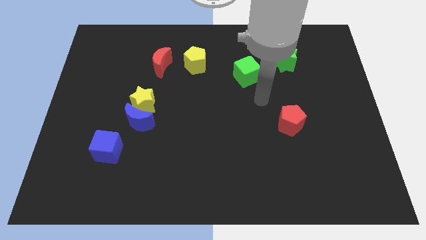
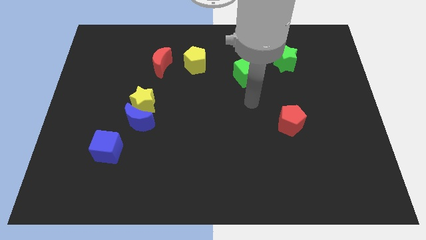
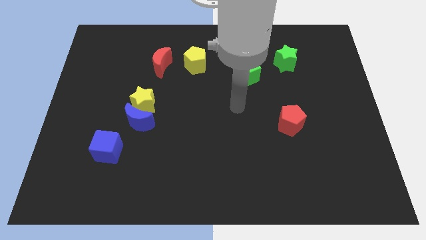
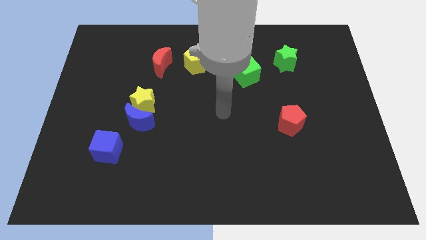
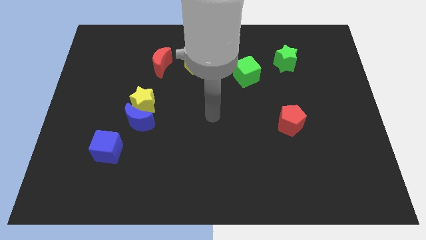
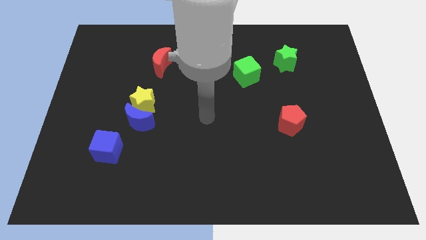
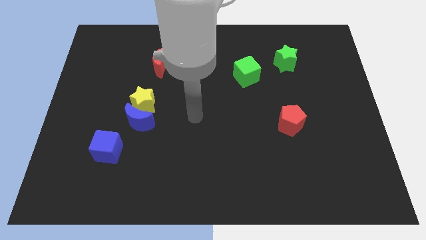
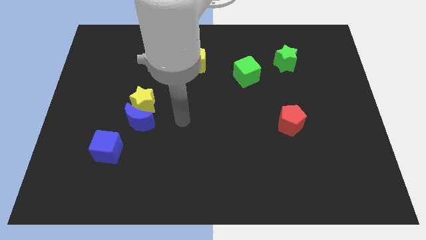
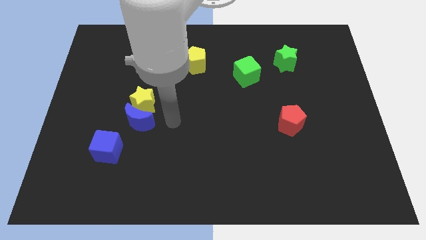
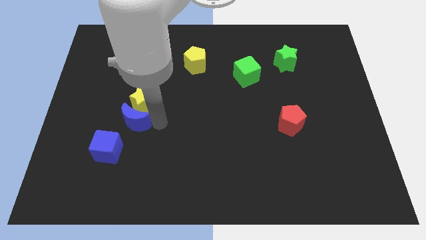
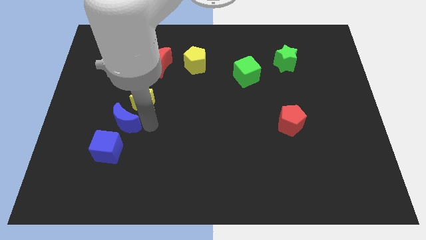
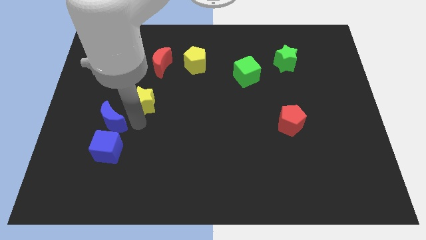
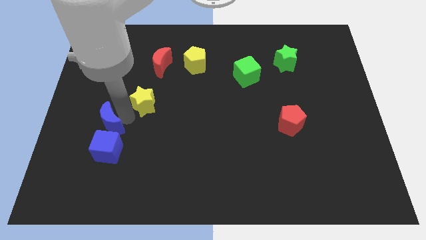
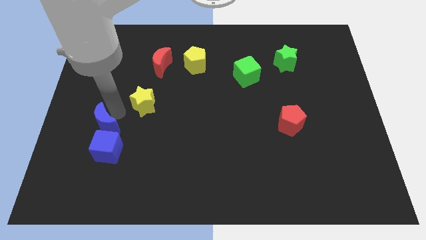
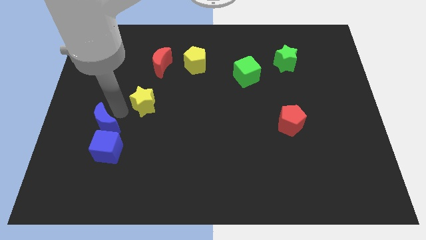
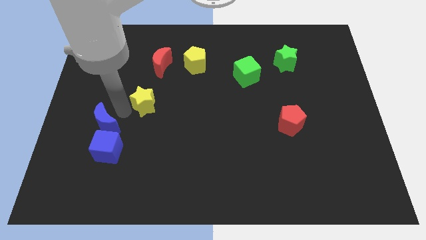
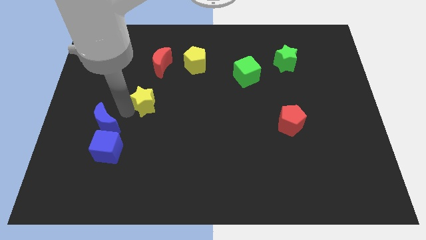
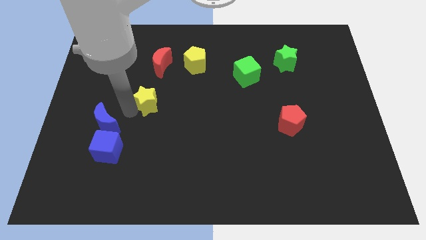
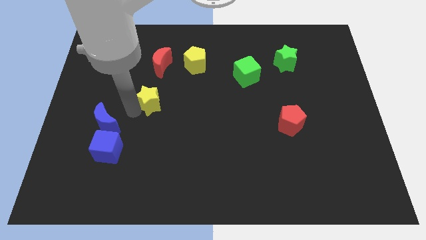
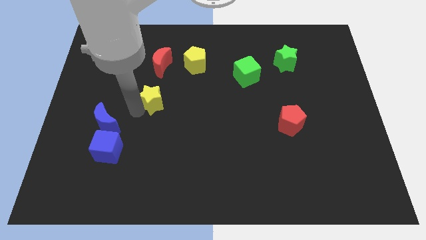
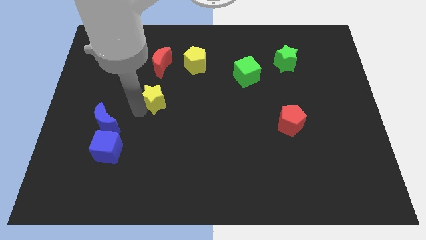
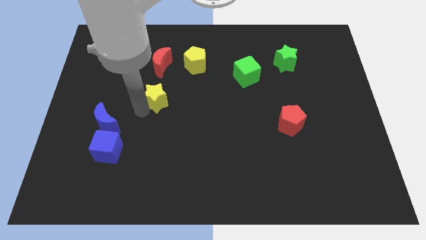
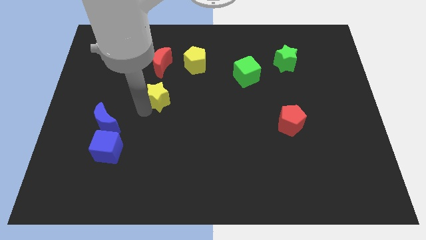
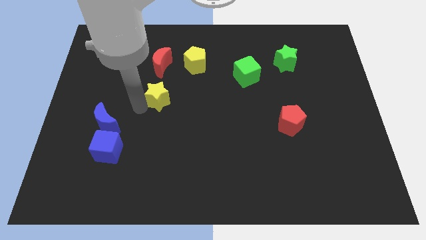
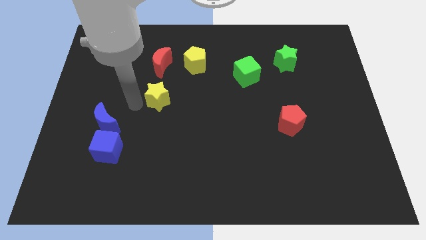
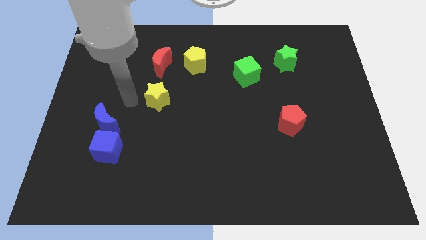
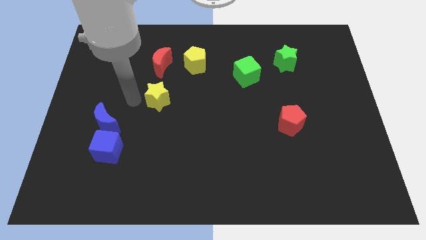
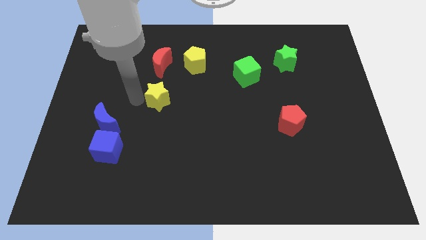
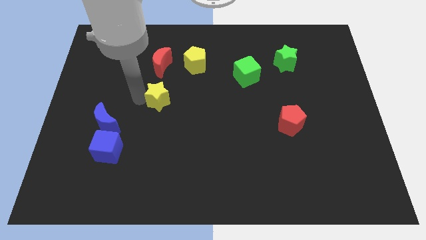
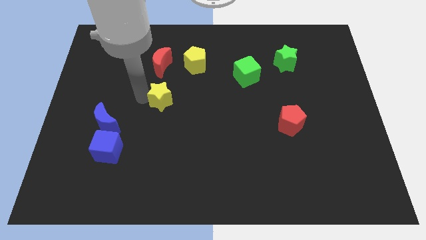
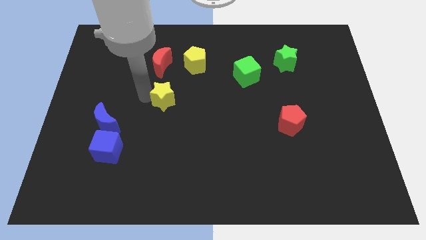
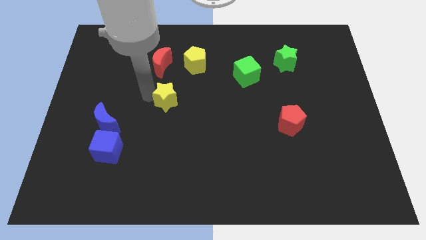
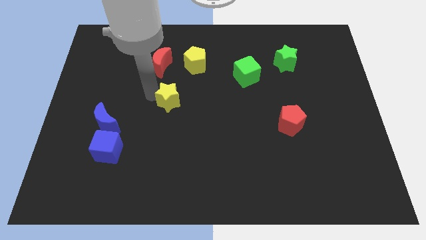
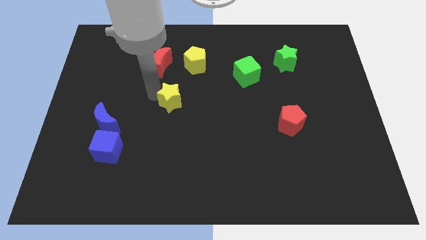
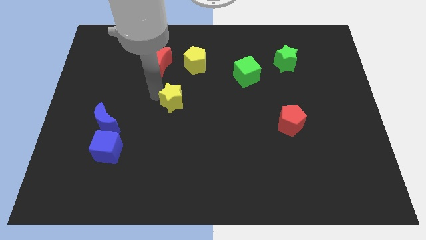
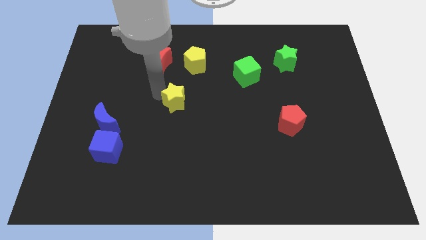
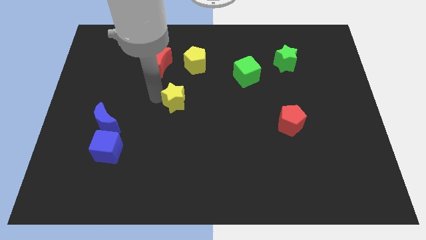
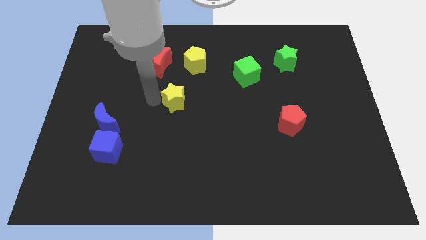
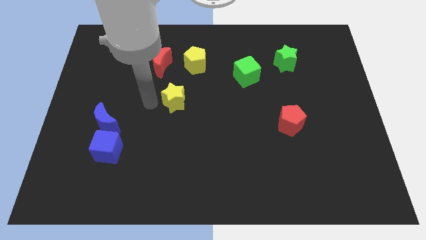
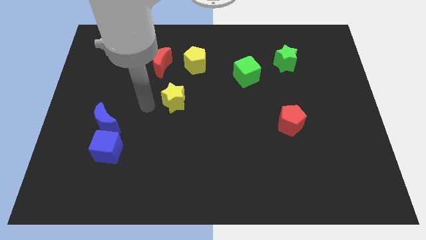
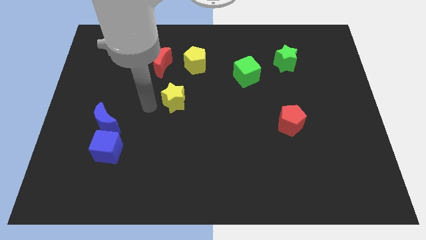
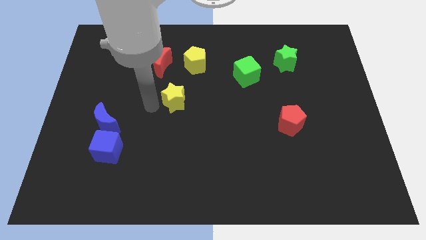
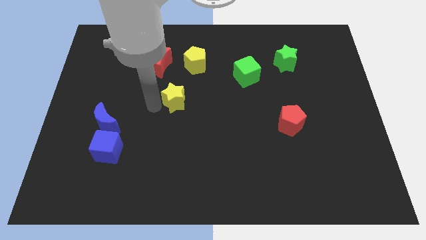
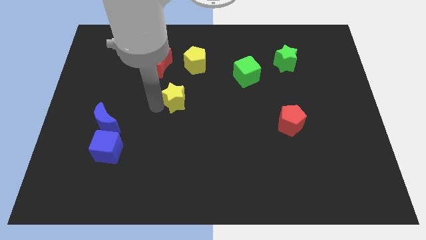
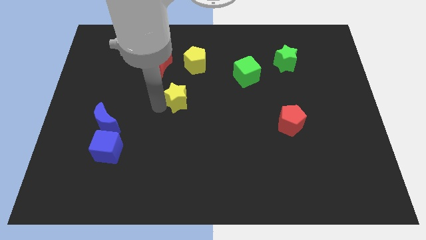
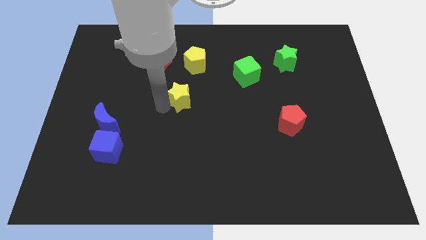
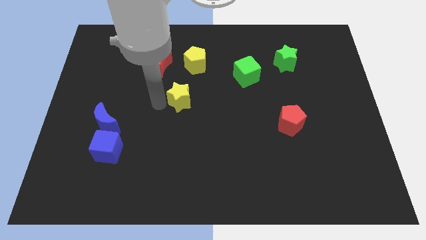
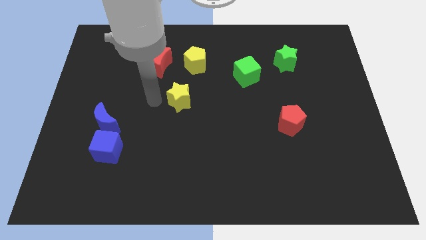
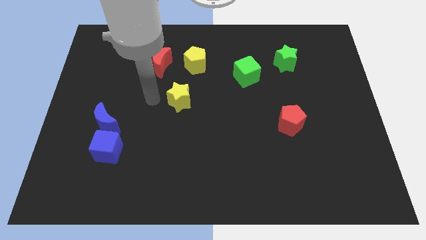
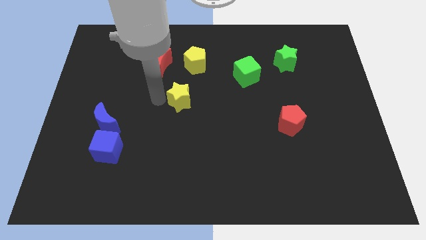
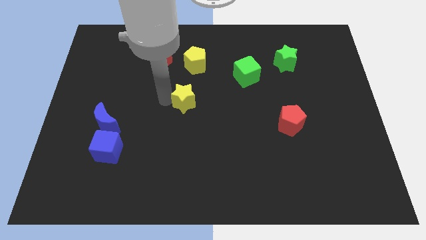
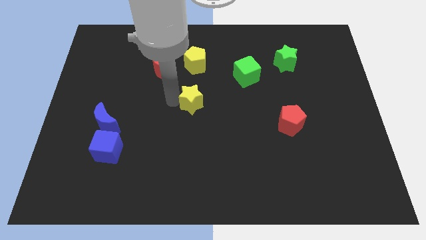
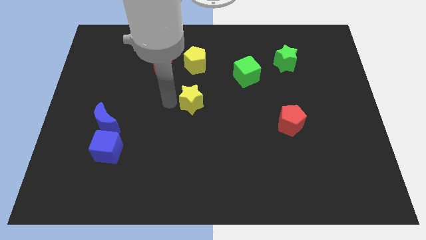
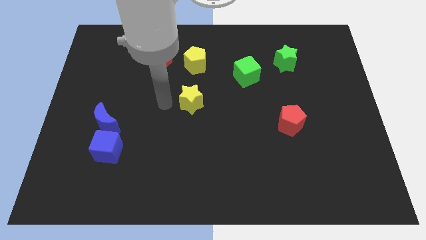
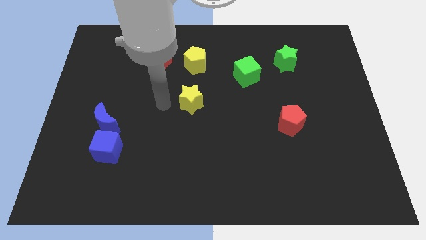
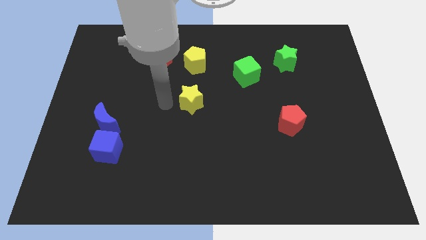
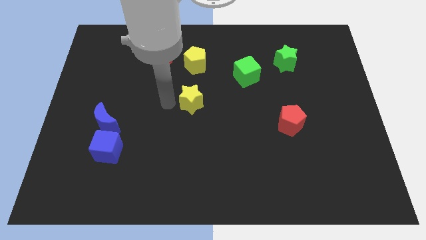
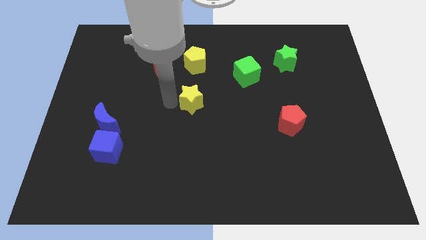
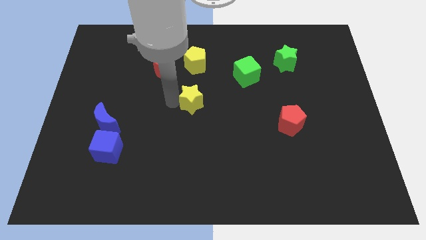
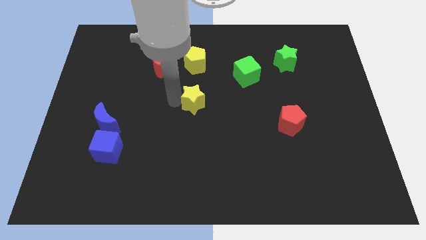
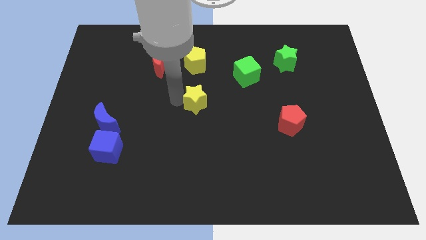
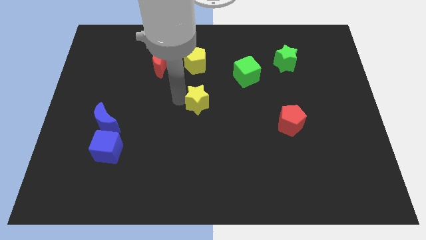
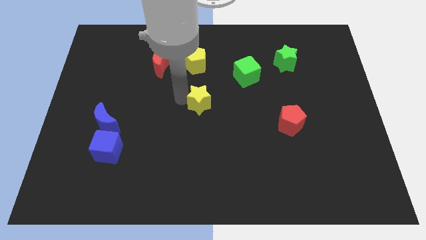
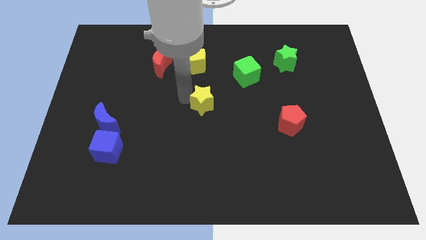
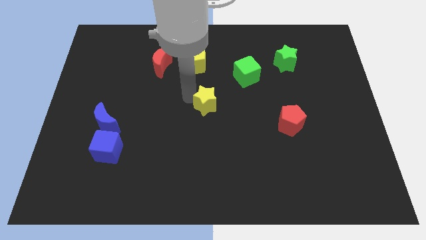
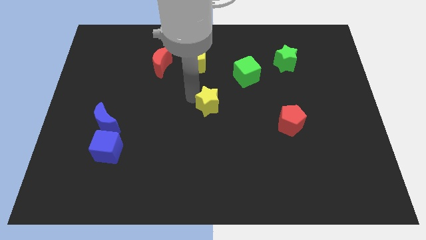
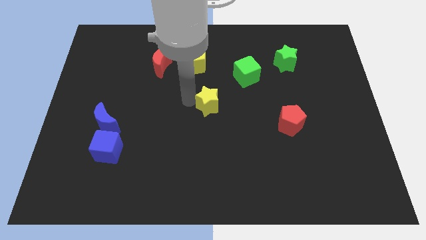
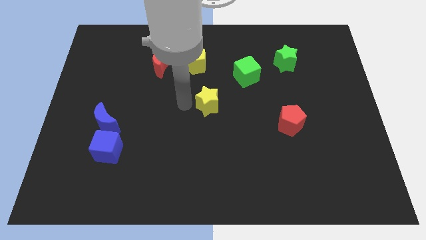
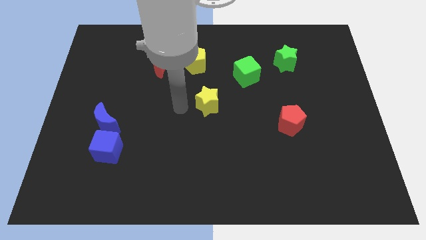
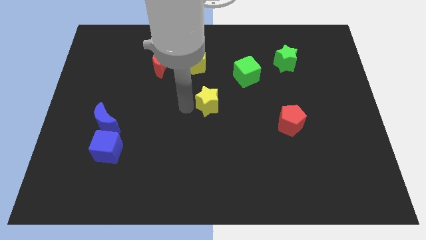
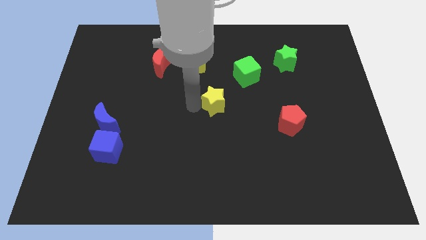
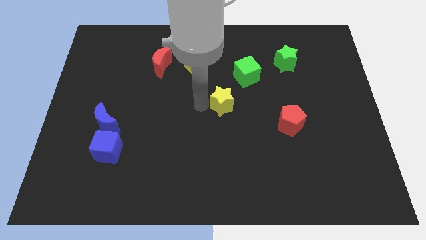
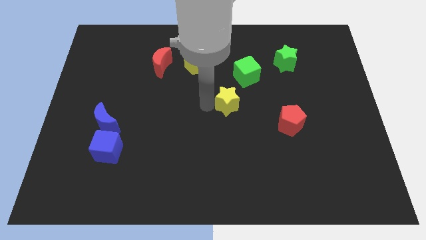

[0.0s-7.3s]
move the yellow star right

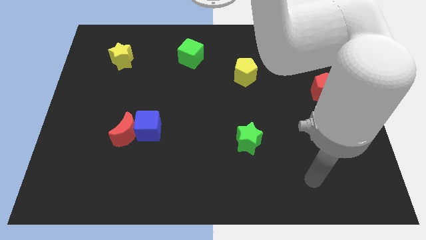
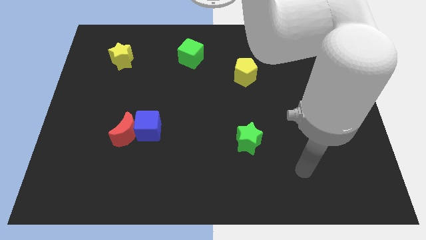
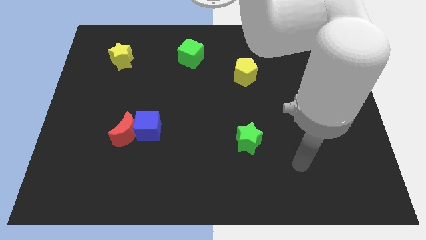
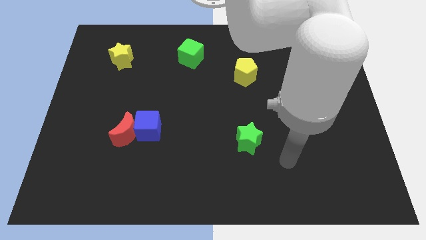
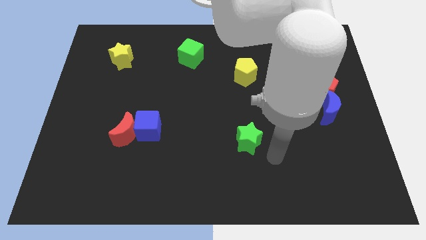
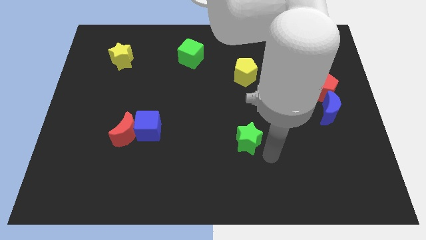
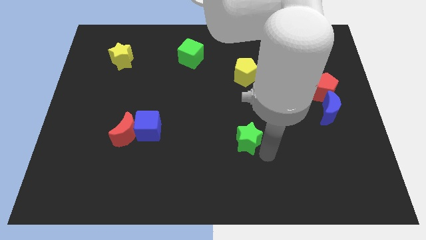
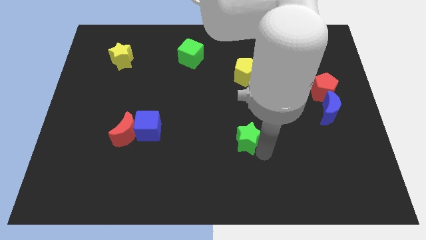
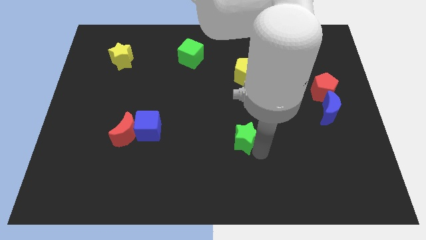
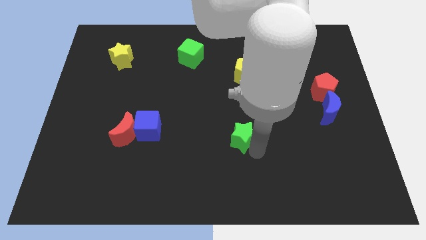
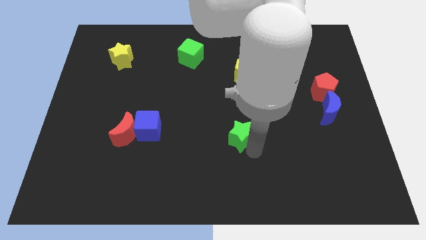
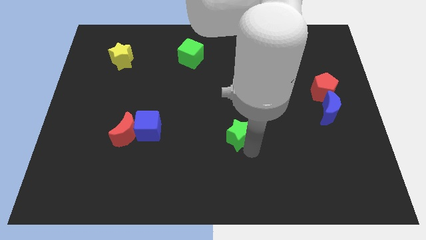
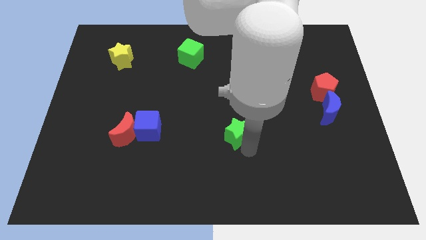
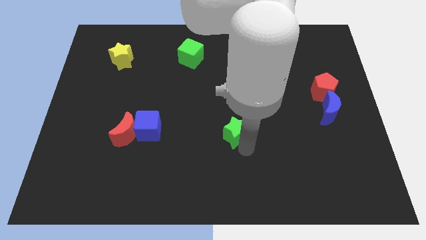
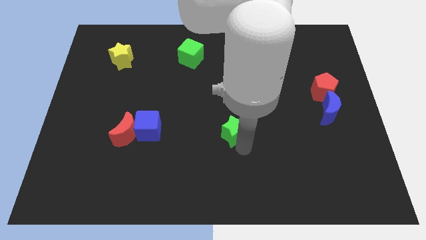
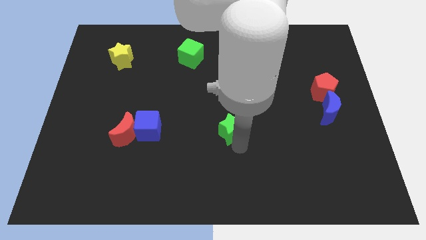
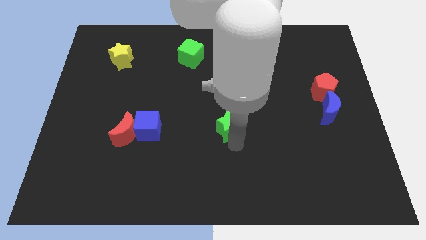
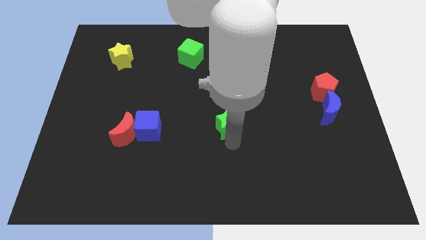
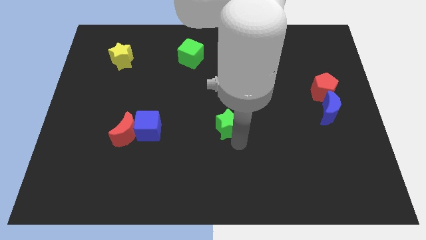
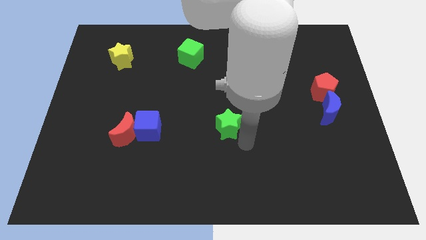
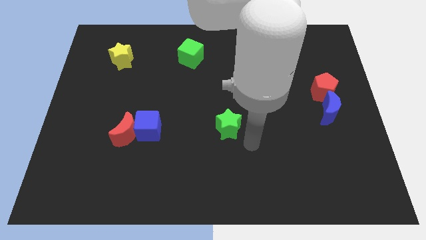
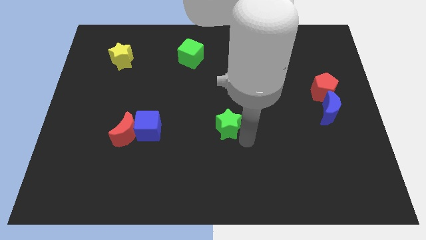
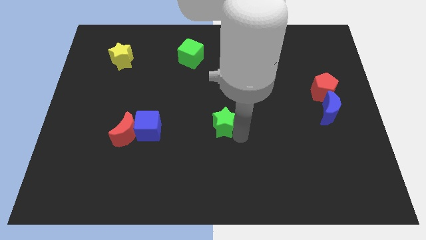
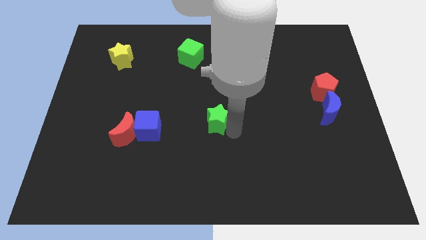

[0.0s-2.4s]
move the green star slightly up and to the left
